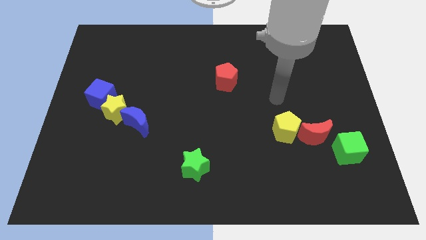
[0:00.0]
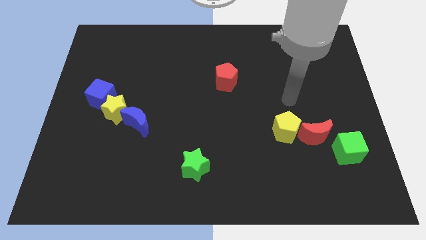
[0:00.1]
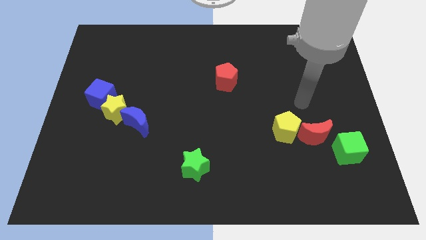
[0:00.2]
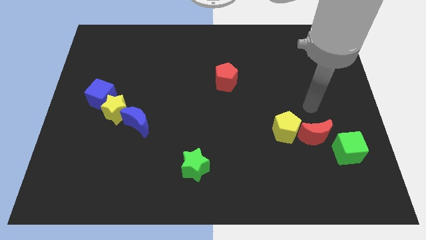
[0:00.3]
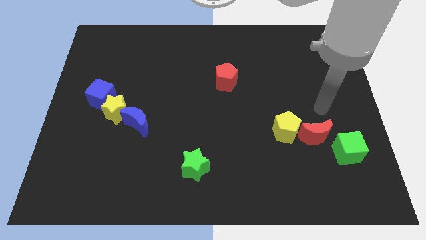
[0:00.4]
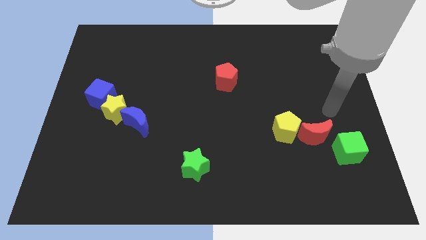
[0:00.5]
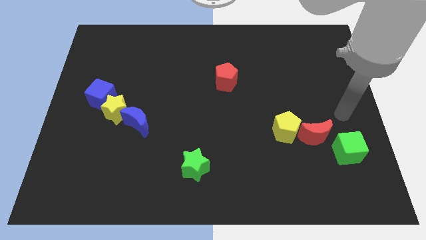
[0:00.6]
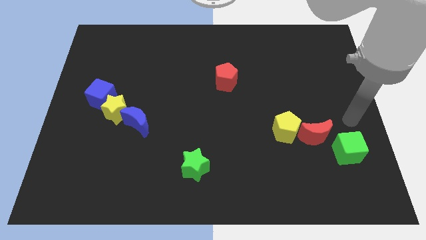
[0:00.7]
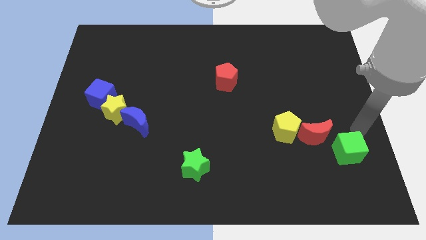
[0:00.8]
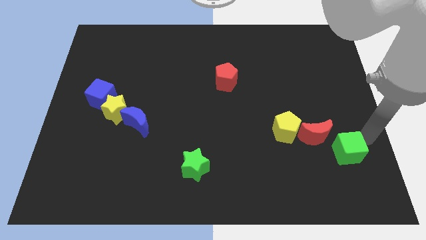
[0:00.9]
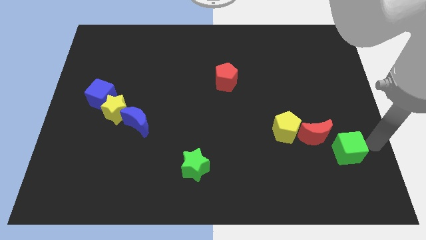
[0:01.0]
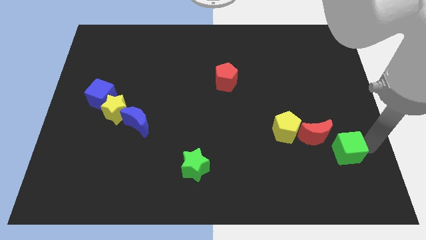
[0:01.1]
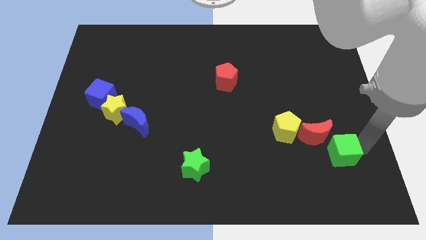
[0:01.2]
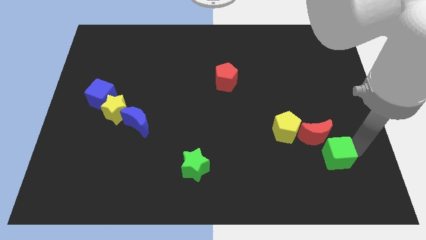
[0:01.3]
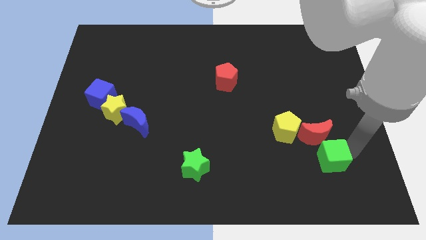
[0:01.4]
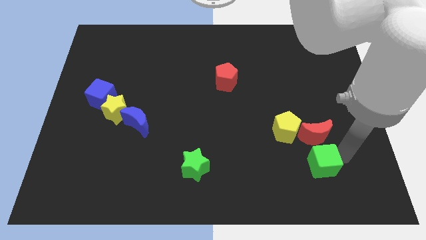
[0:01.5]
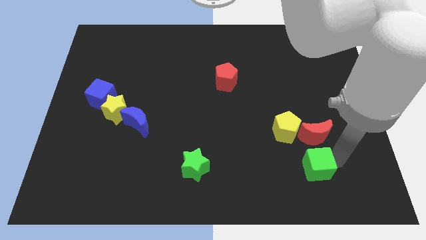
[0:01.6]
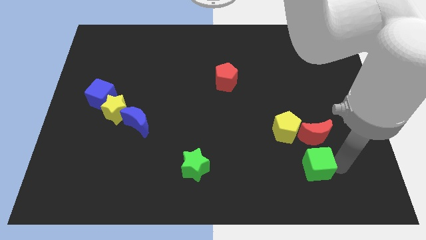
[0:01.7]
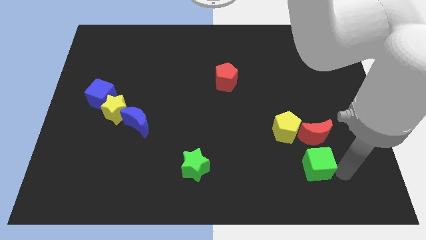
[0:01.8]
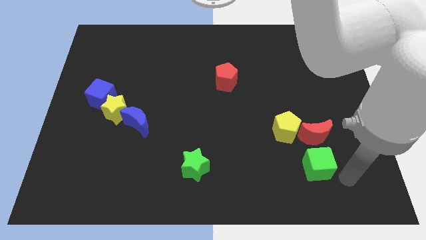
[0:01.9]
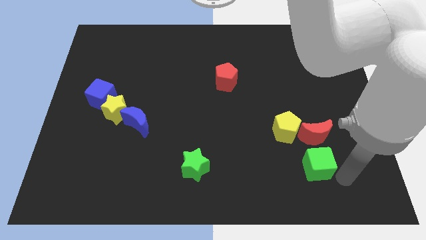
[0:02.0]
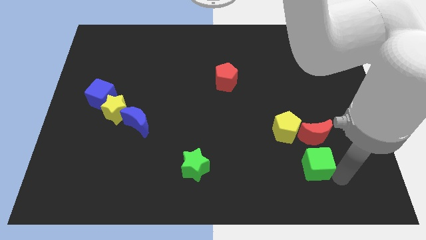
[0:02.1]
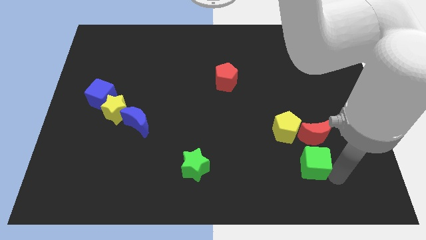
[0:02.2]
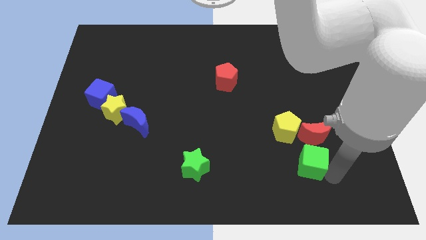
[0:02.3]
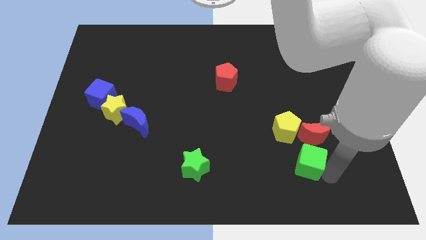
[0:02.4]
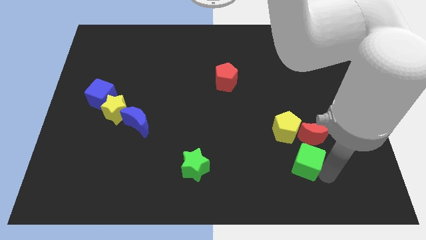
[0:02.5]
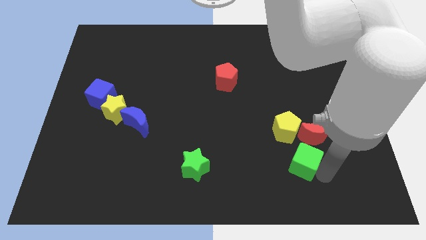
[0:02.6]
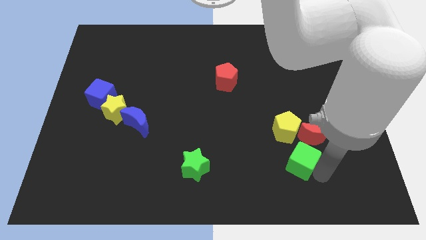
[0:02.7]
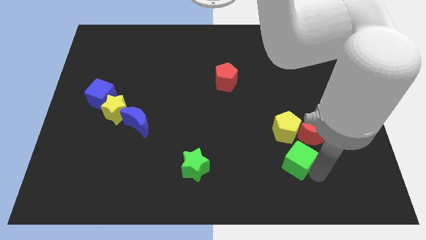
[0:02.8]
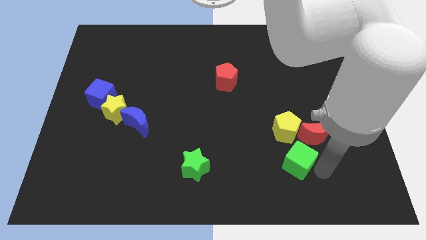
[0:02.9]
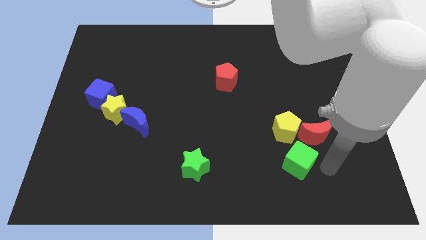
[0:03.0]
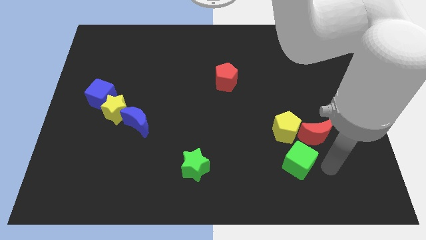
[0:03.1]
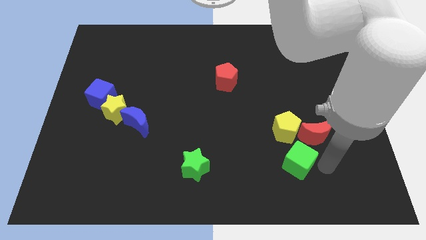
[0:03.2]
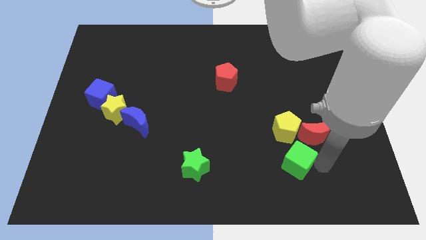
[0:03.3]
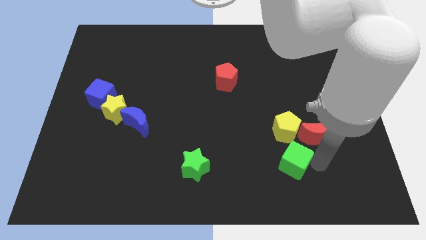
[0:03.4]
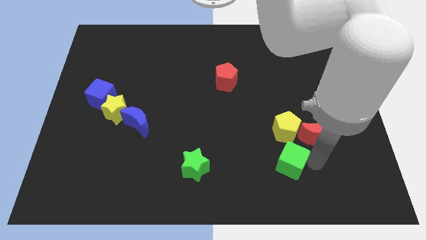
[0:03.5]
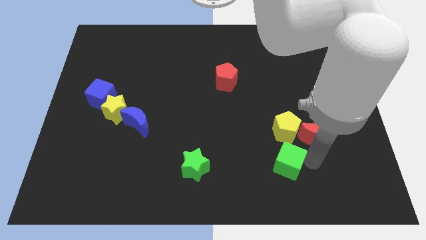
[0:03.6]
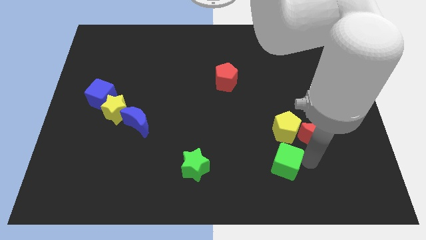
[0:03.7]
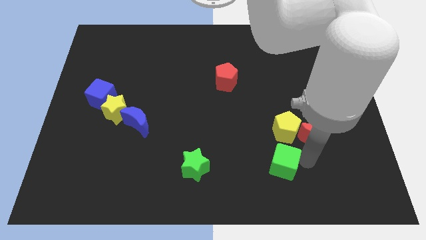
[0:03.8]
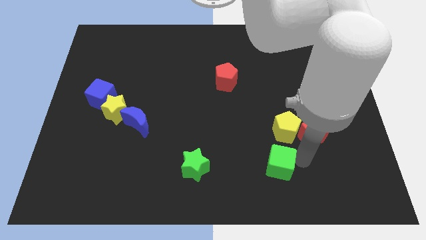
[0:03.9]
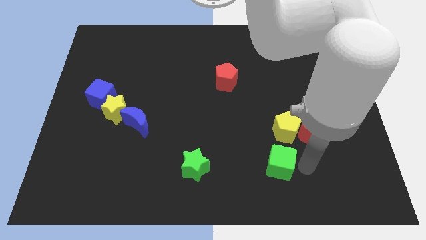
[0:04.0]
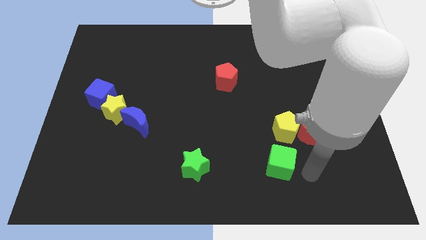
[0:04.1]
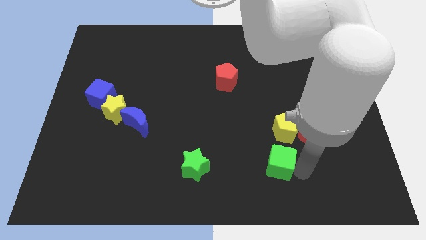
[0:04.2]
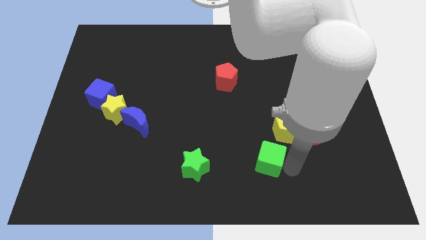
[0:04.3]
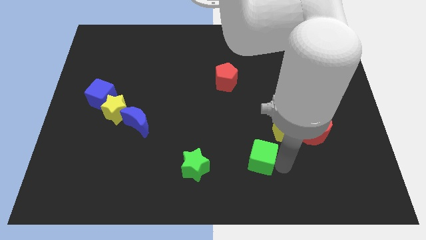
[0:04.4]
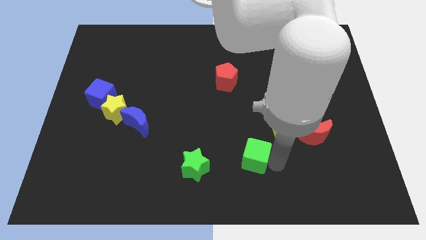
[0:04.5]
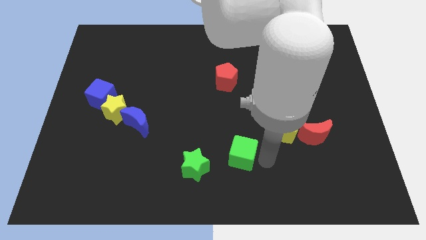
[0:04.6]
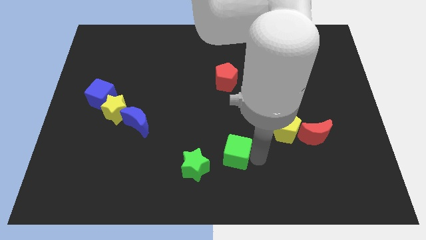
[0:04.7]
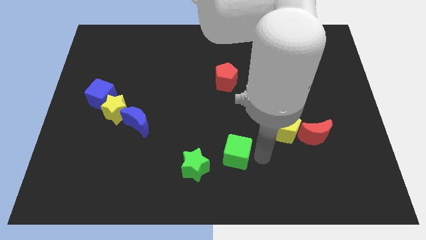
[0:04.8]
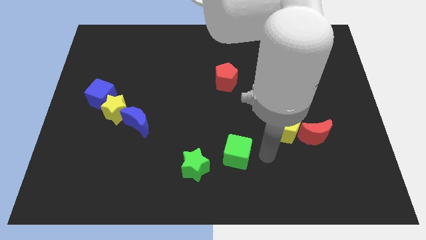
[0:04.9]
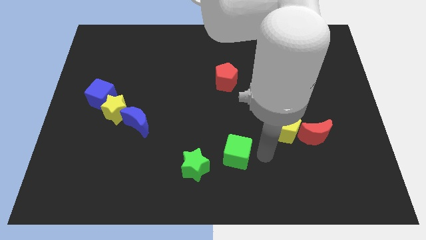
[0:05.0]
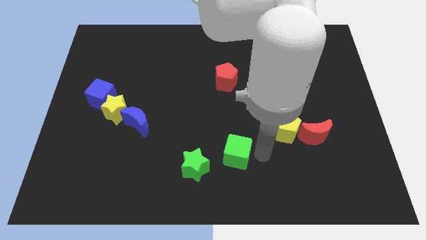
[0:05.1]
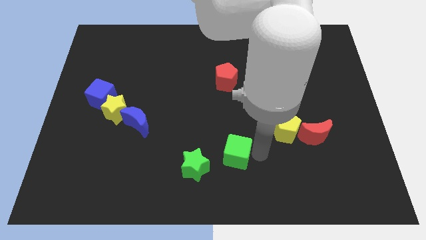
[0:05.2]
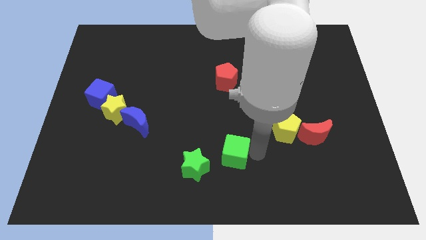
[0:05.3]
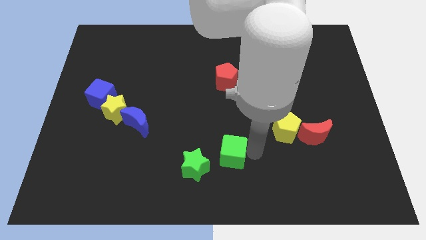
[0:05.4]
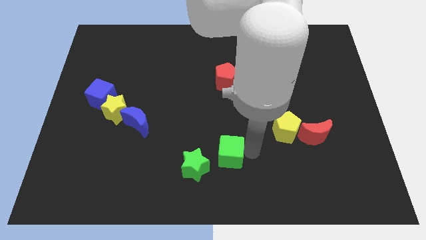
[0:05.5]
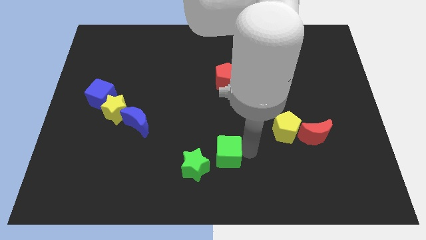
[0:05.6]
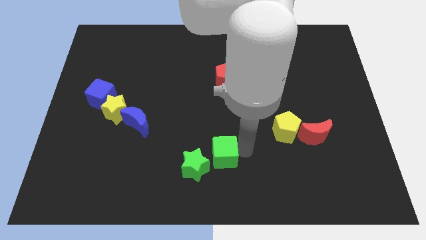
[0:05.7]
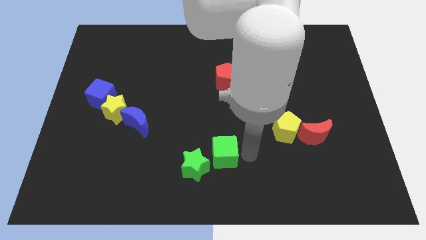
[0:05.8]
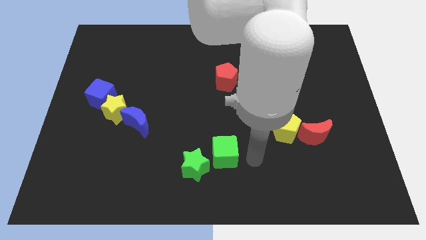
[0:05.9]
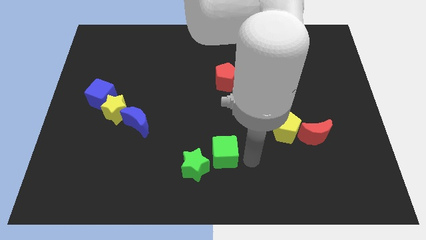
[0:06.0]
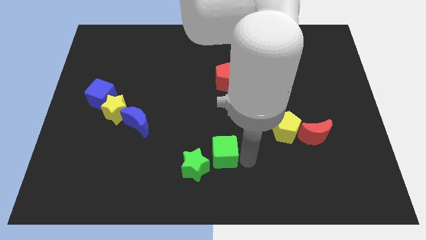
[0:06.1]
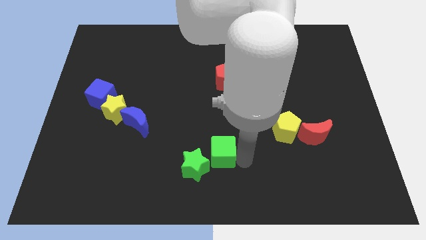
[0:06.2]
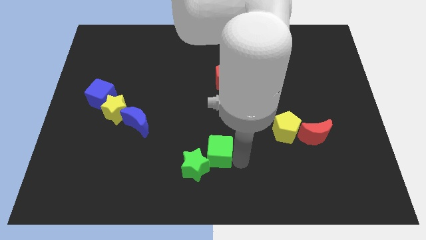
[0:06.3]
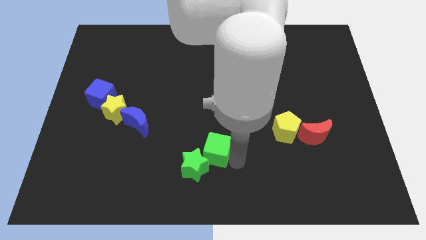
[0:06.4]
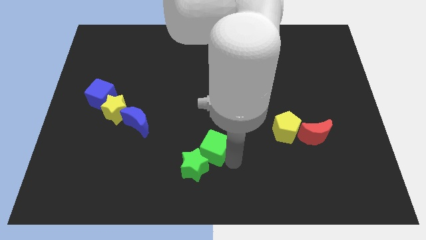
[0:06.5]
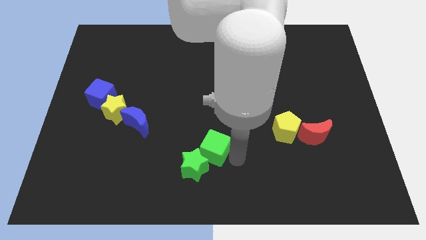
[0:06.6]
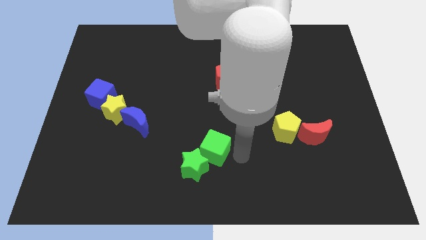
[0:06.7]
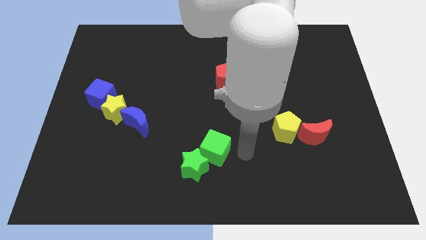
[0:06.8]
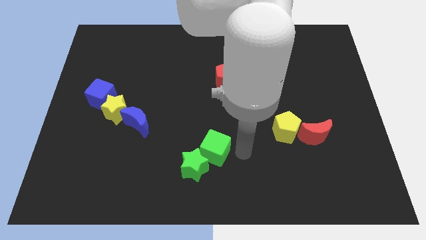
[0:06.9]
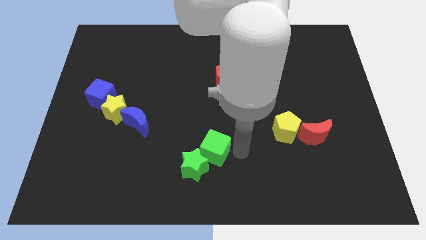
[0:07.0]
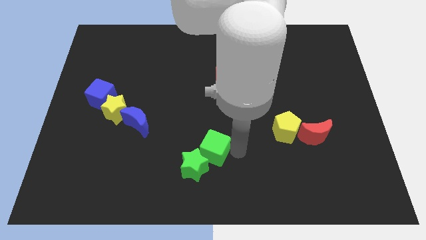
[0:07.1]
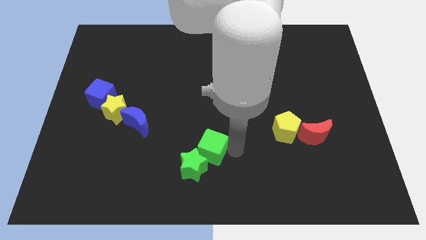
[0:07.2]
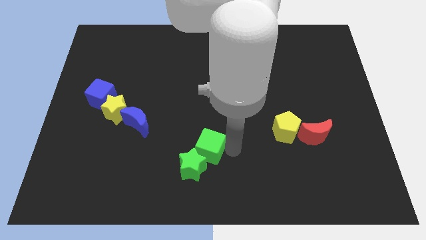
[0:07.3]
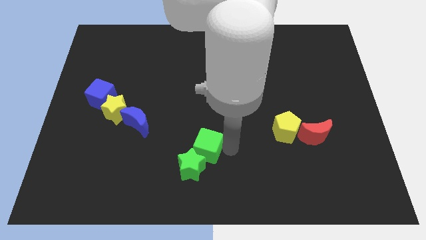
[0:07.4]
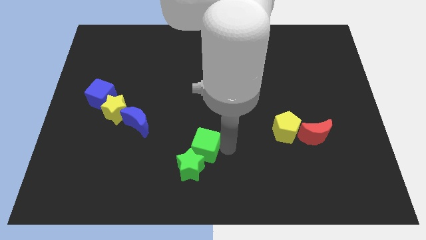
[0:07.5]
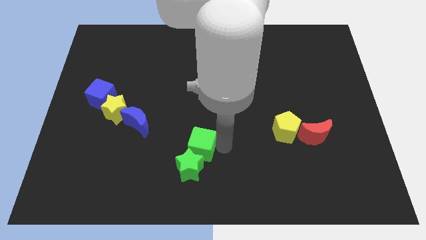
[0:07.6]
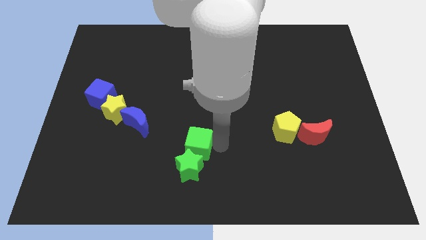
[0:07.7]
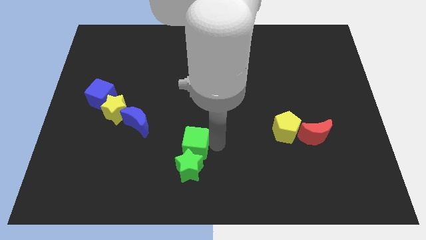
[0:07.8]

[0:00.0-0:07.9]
put the green cube diagonally up and to the left of the green star

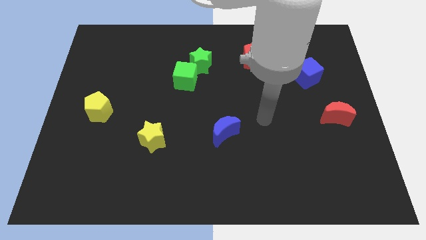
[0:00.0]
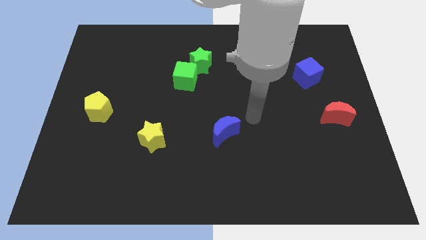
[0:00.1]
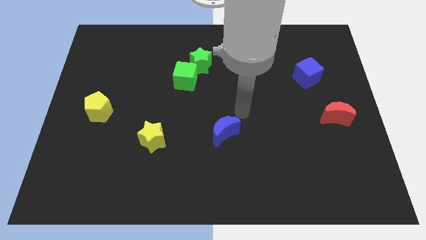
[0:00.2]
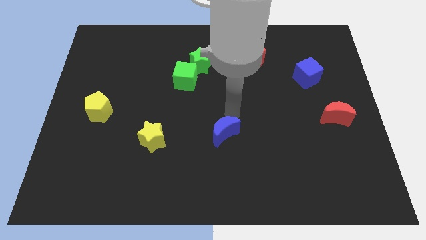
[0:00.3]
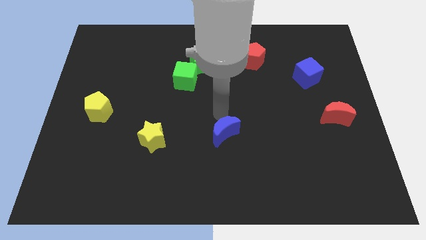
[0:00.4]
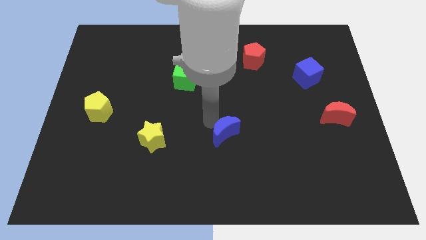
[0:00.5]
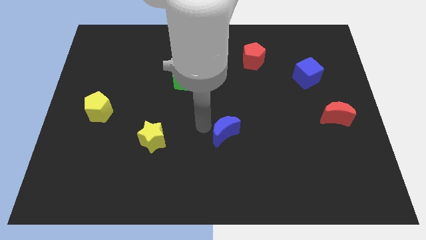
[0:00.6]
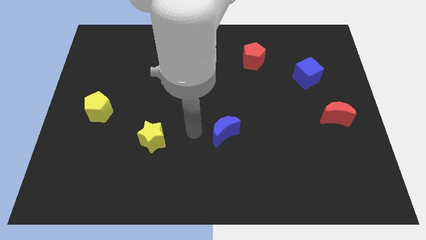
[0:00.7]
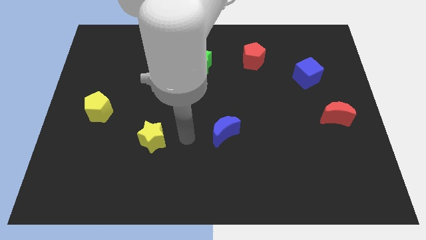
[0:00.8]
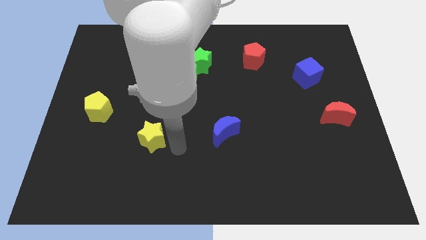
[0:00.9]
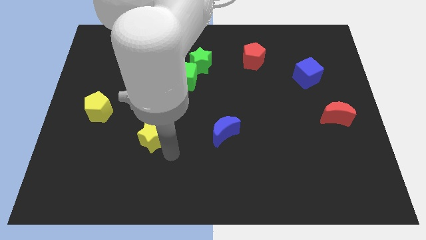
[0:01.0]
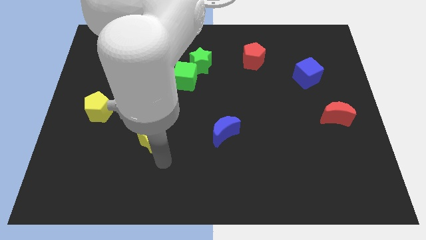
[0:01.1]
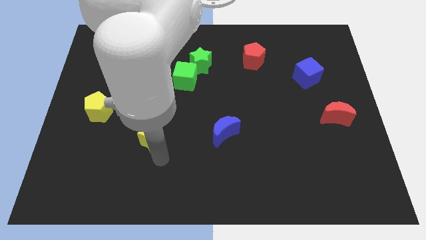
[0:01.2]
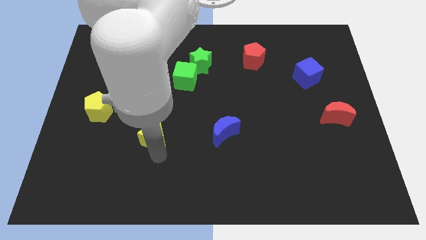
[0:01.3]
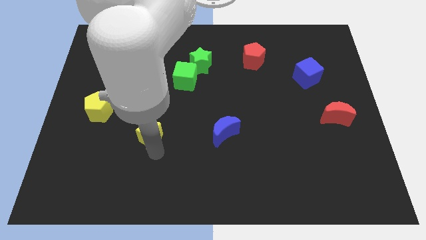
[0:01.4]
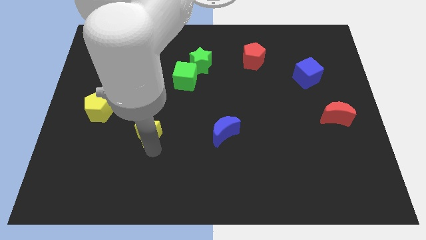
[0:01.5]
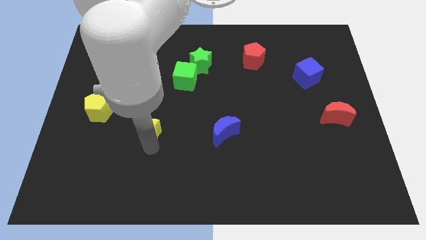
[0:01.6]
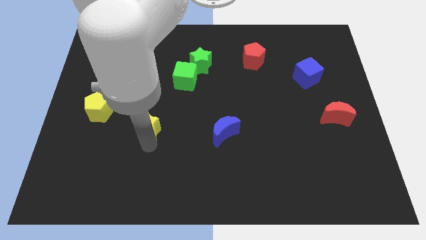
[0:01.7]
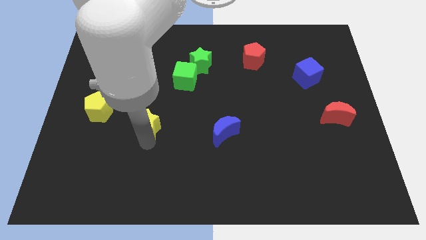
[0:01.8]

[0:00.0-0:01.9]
push the yellow star right of the yellow pentagon
